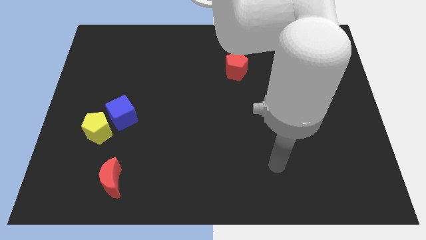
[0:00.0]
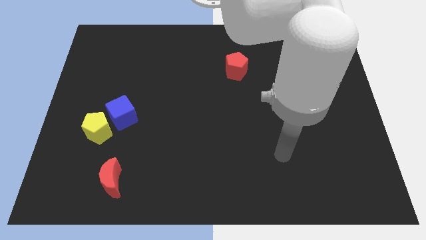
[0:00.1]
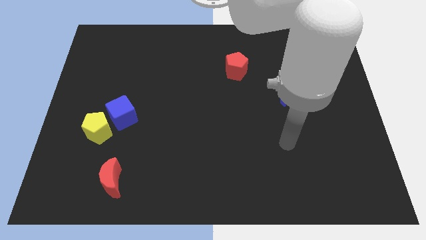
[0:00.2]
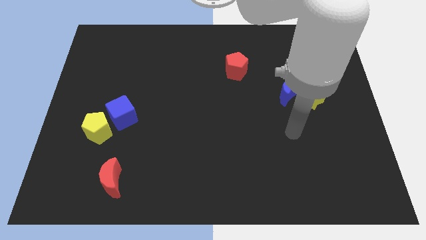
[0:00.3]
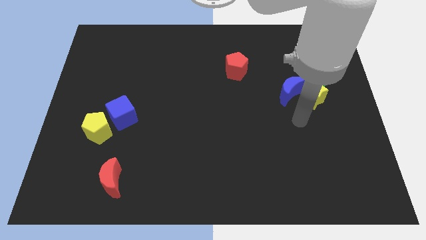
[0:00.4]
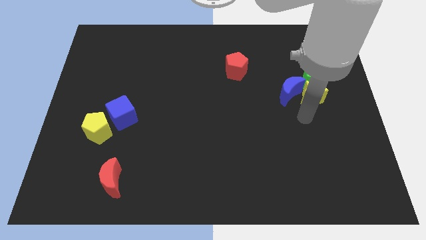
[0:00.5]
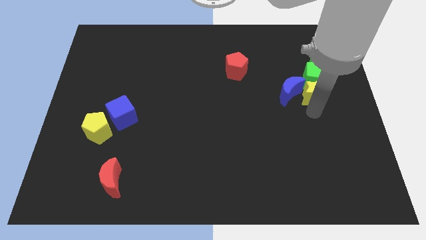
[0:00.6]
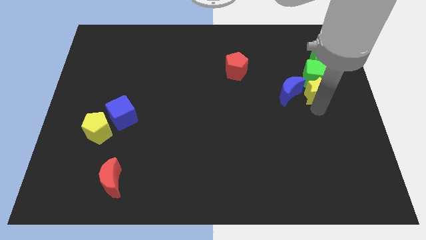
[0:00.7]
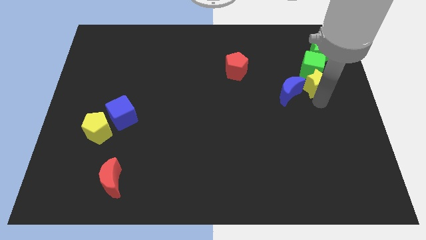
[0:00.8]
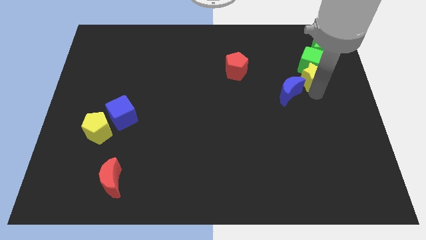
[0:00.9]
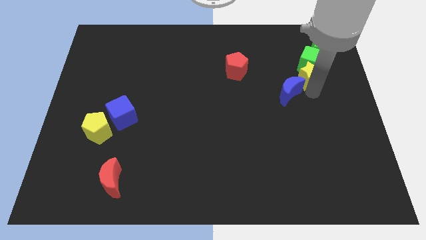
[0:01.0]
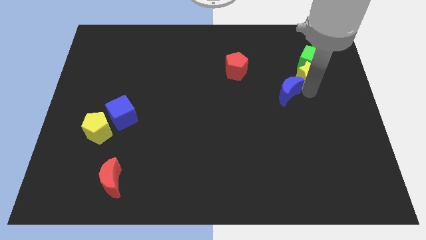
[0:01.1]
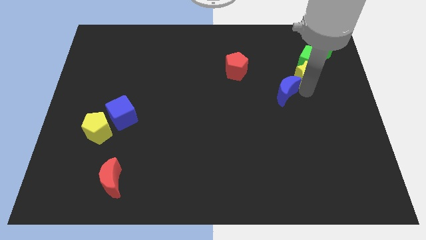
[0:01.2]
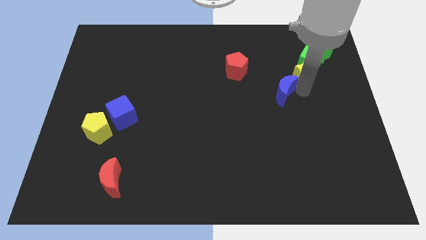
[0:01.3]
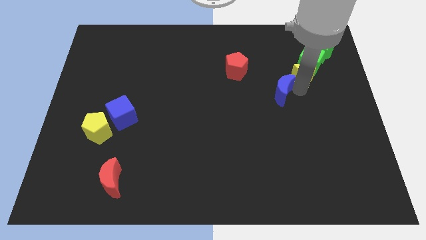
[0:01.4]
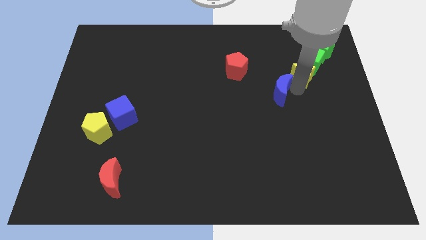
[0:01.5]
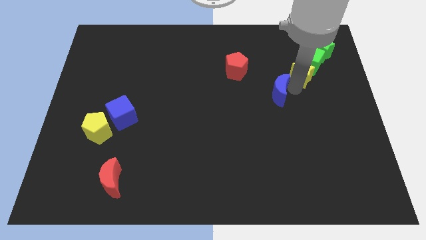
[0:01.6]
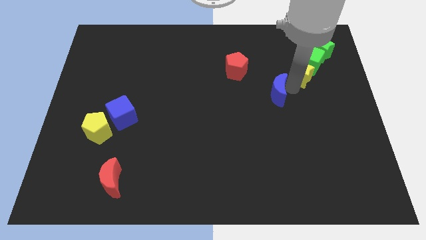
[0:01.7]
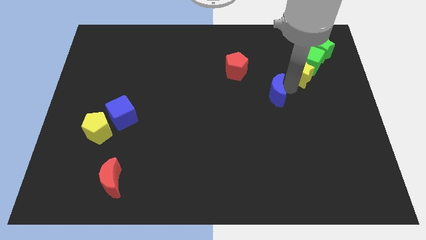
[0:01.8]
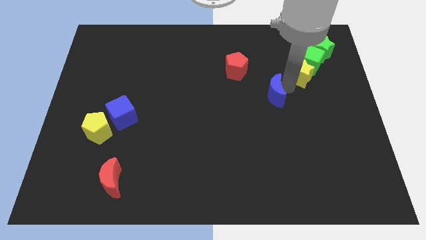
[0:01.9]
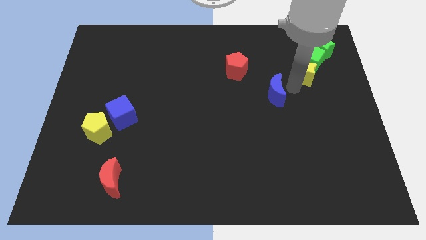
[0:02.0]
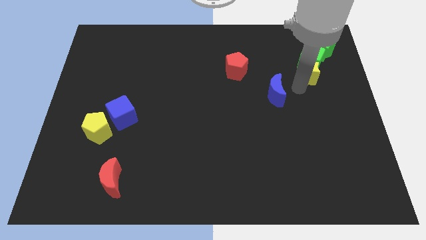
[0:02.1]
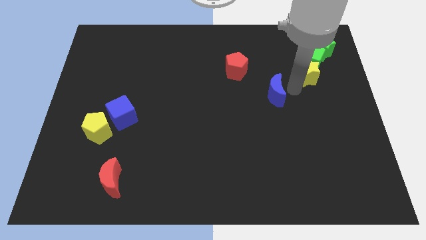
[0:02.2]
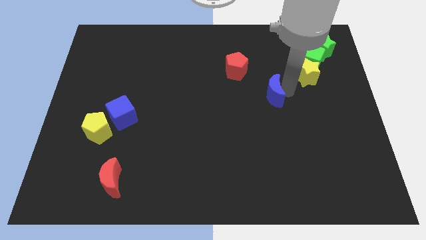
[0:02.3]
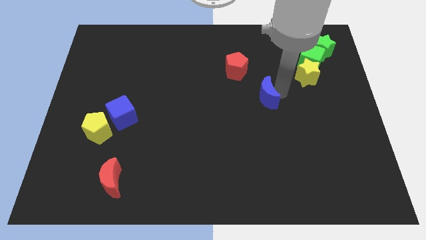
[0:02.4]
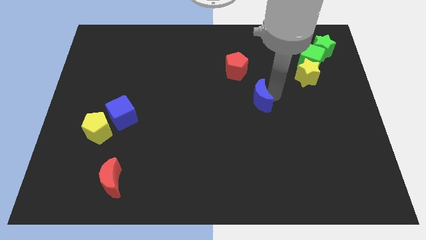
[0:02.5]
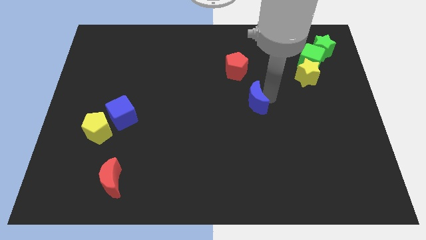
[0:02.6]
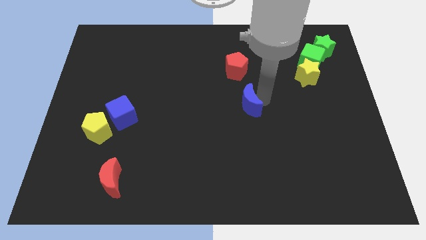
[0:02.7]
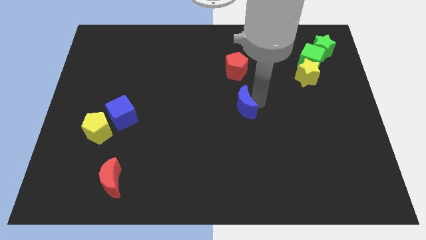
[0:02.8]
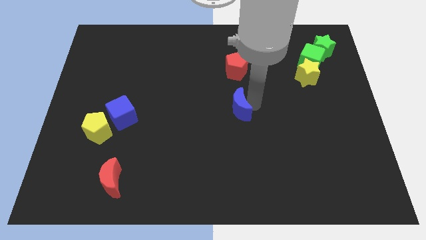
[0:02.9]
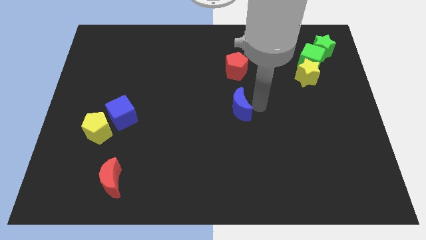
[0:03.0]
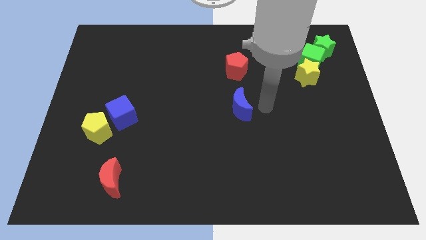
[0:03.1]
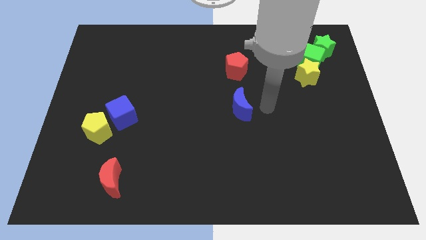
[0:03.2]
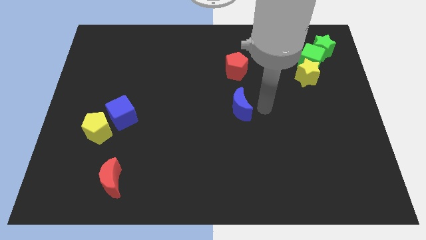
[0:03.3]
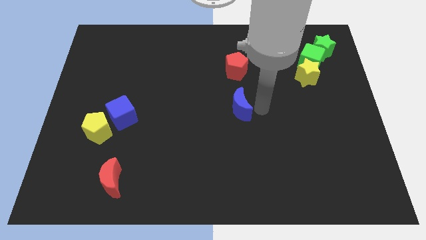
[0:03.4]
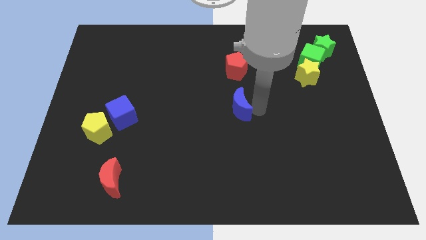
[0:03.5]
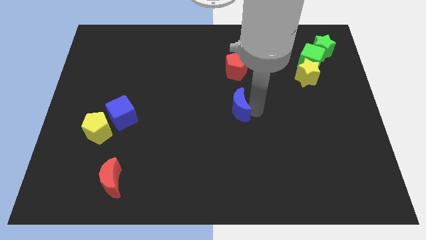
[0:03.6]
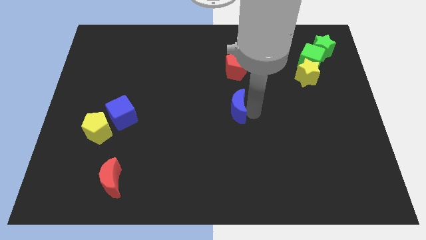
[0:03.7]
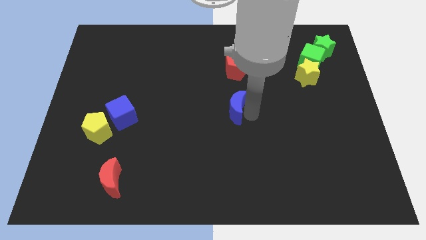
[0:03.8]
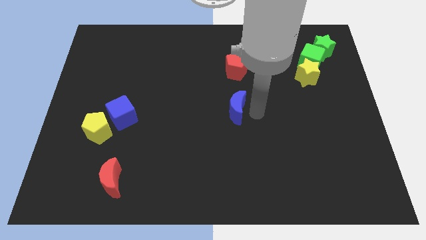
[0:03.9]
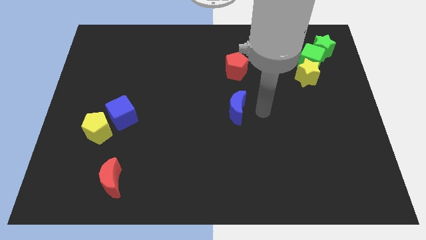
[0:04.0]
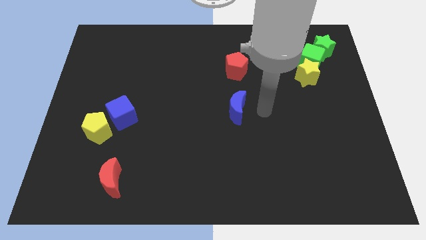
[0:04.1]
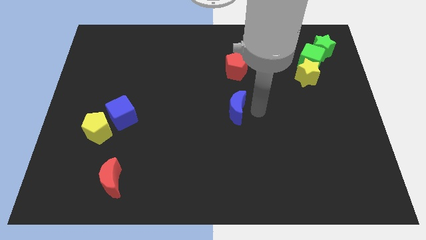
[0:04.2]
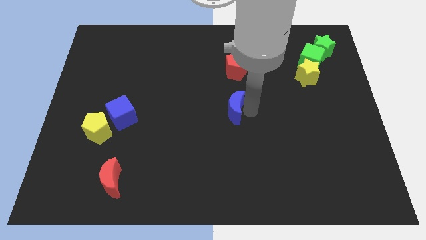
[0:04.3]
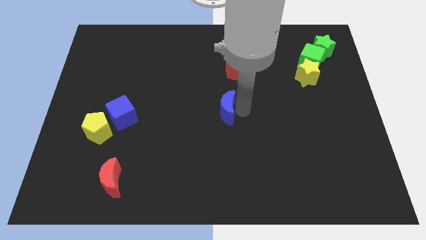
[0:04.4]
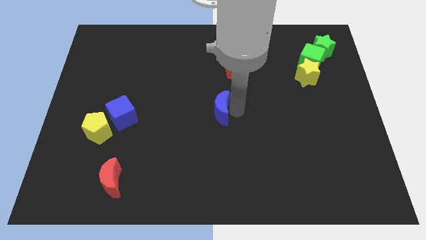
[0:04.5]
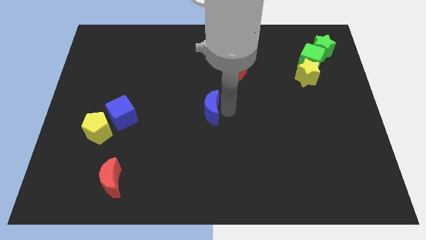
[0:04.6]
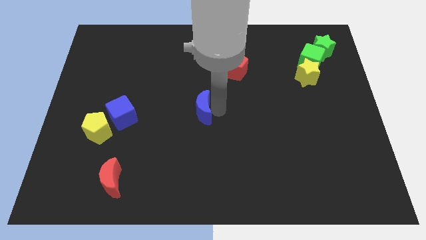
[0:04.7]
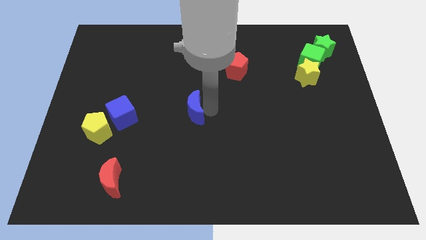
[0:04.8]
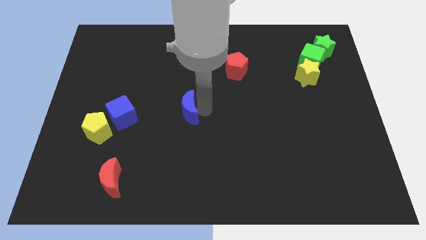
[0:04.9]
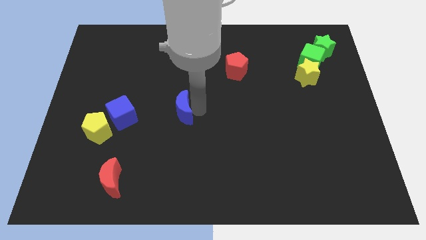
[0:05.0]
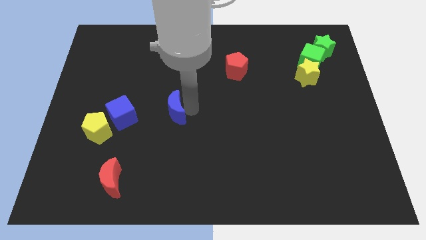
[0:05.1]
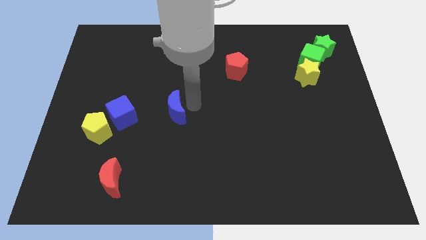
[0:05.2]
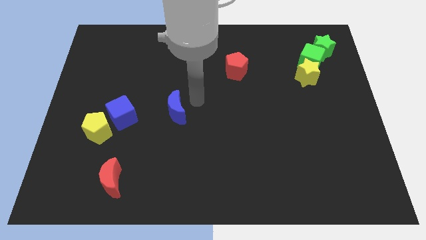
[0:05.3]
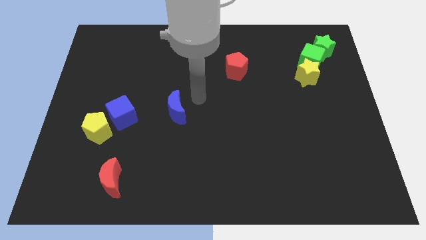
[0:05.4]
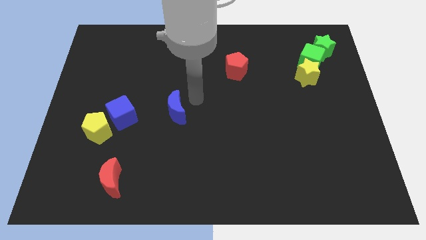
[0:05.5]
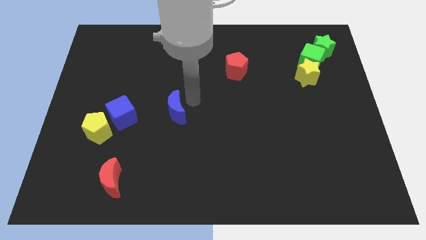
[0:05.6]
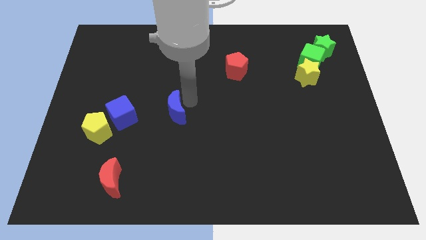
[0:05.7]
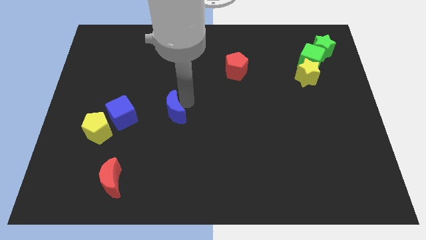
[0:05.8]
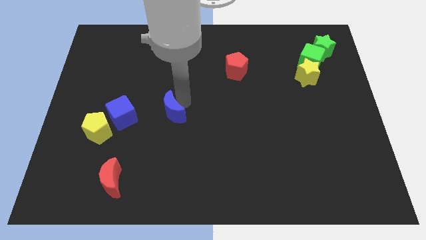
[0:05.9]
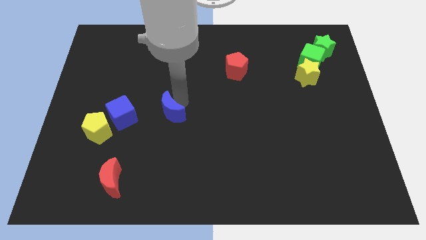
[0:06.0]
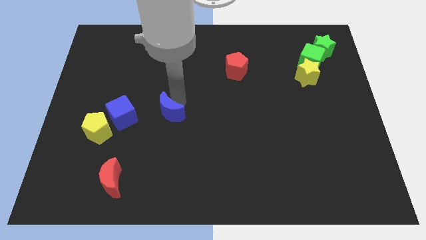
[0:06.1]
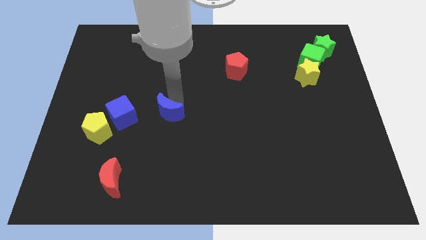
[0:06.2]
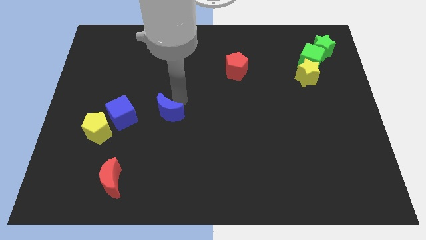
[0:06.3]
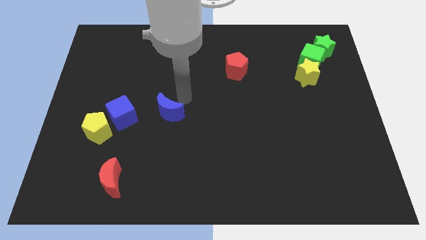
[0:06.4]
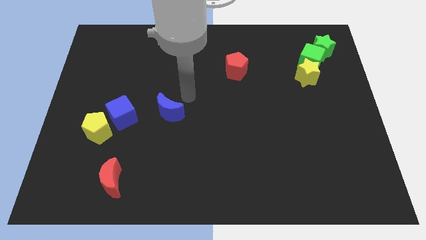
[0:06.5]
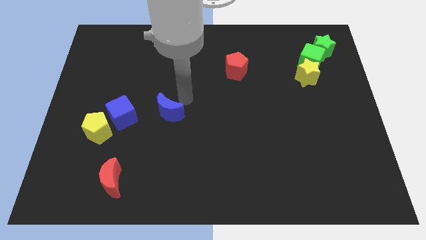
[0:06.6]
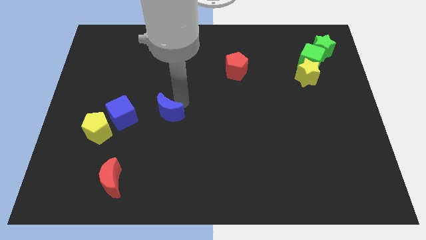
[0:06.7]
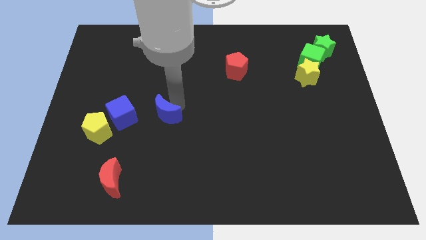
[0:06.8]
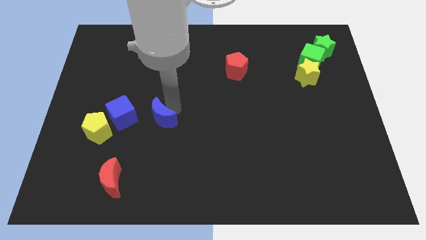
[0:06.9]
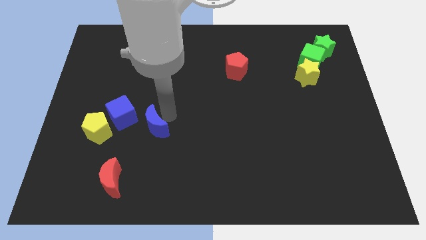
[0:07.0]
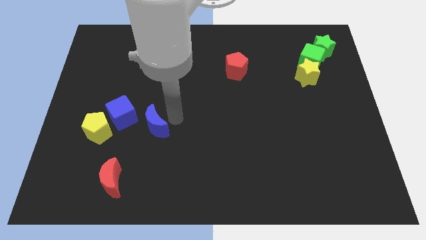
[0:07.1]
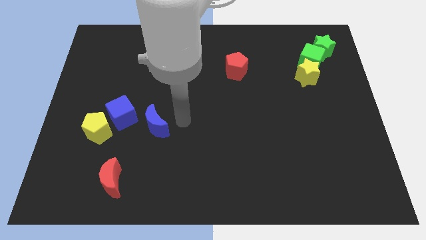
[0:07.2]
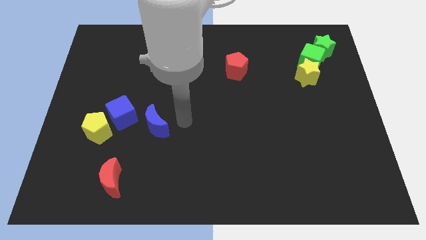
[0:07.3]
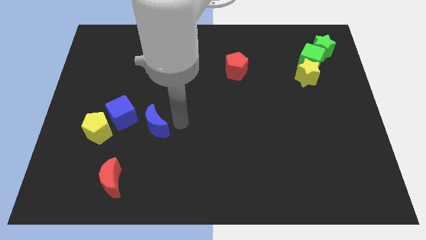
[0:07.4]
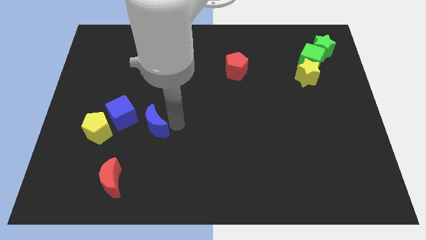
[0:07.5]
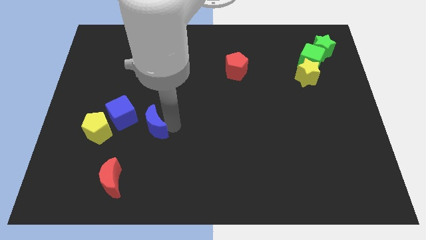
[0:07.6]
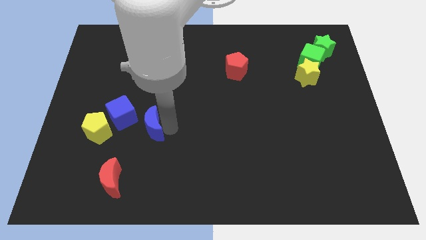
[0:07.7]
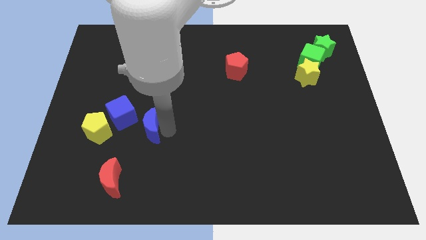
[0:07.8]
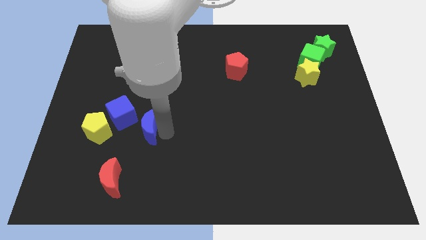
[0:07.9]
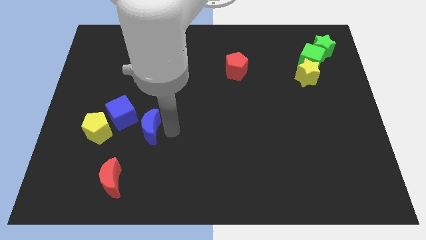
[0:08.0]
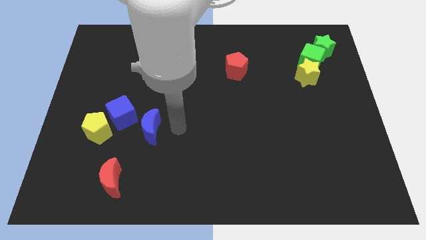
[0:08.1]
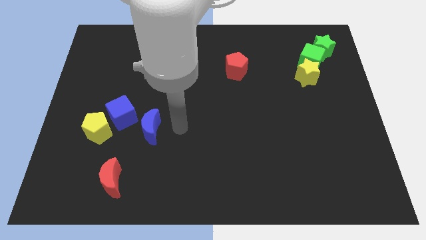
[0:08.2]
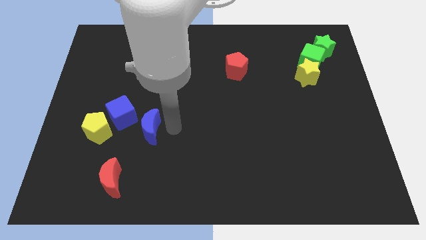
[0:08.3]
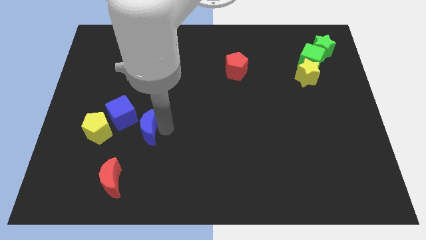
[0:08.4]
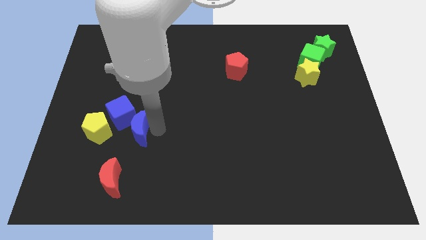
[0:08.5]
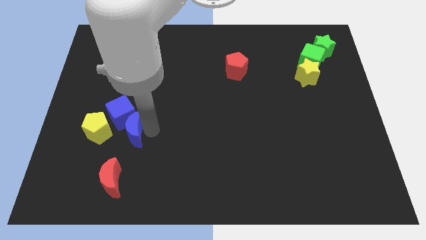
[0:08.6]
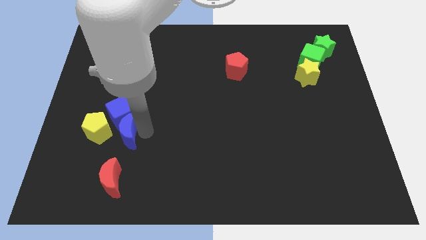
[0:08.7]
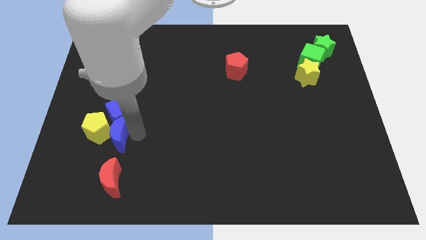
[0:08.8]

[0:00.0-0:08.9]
push the blue moon to the yellow pentagon
